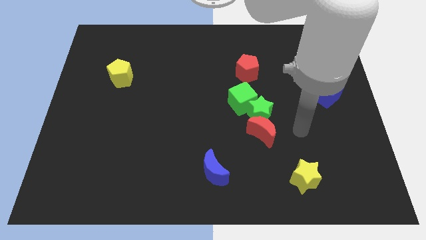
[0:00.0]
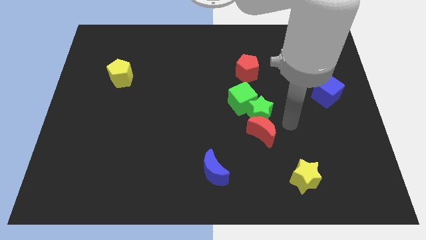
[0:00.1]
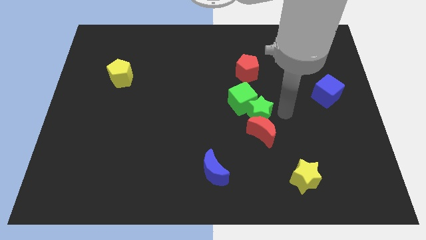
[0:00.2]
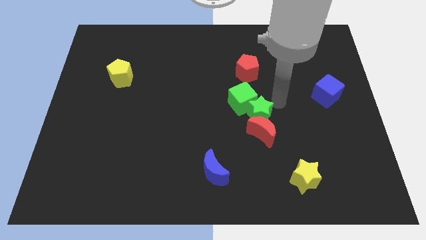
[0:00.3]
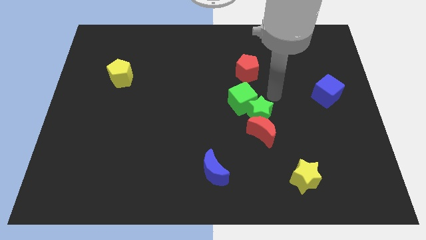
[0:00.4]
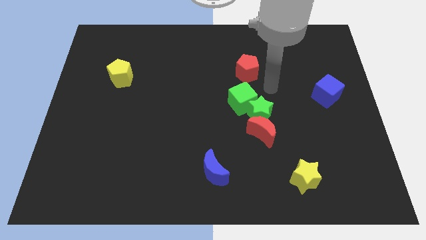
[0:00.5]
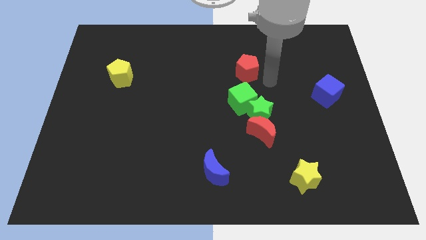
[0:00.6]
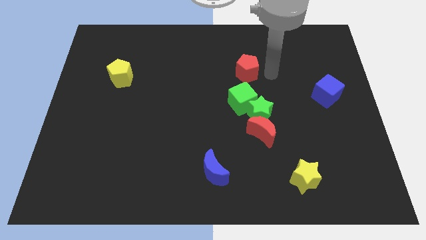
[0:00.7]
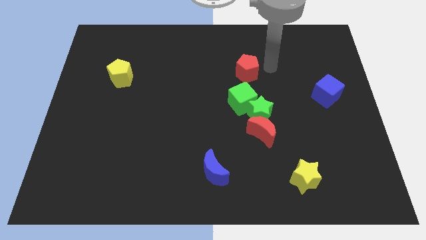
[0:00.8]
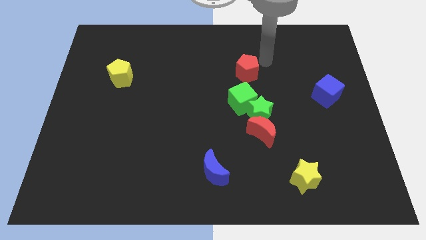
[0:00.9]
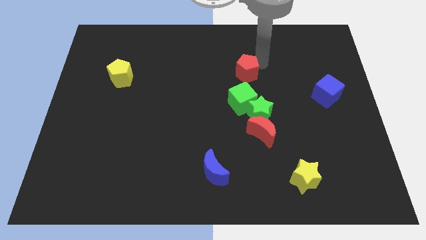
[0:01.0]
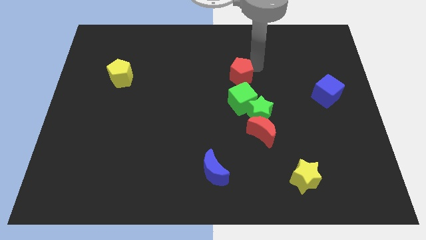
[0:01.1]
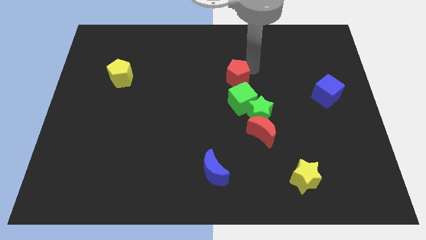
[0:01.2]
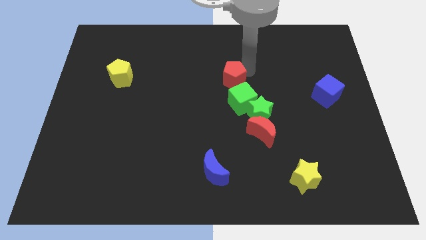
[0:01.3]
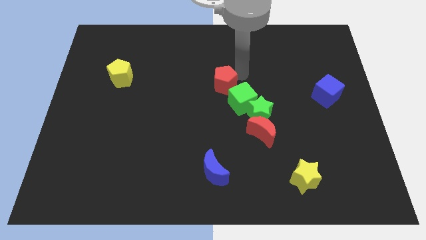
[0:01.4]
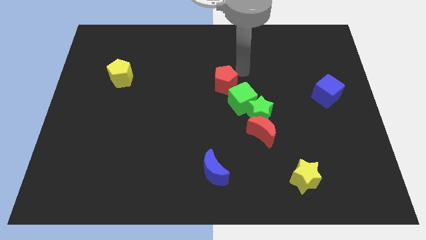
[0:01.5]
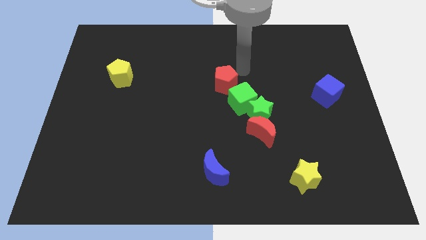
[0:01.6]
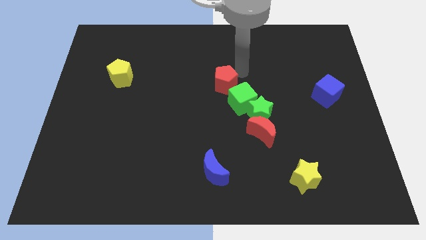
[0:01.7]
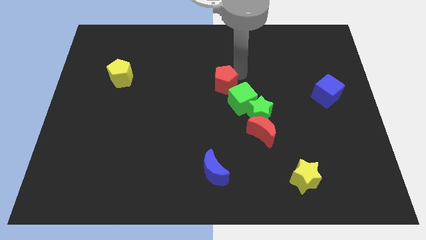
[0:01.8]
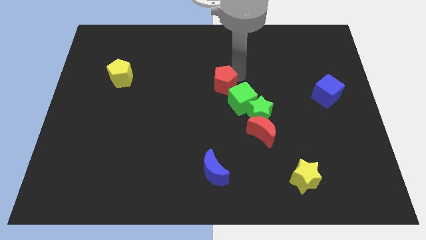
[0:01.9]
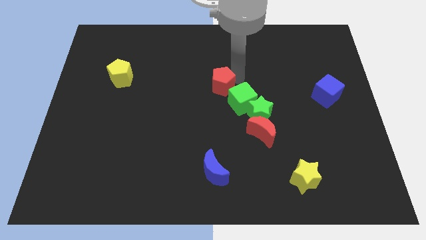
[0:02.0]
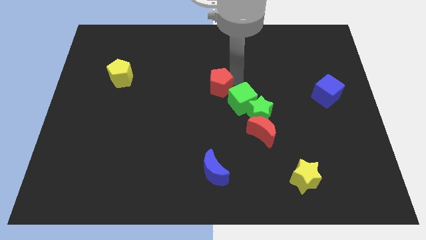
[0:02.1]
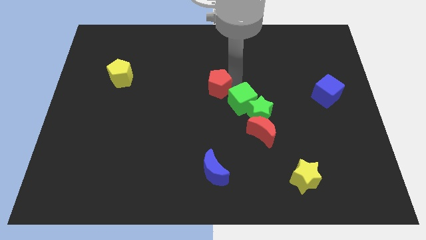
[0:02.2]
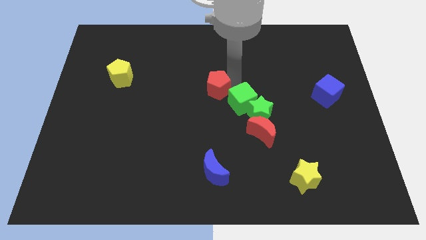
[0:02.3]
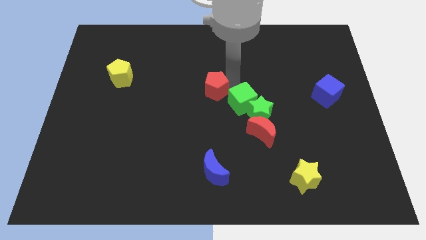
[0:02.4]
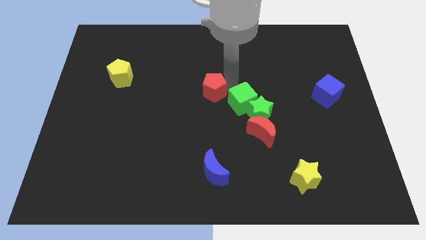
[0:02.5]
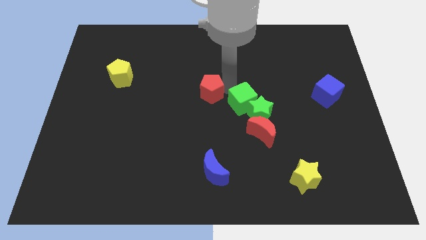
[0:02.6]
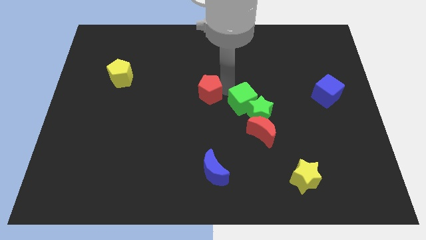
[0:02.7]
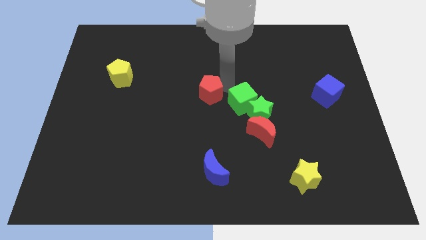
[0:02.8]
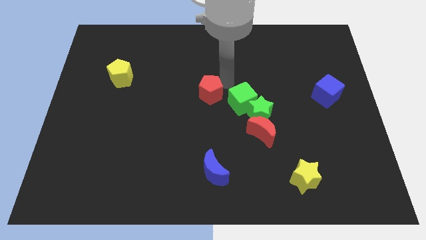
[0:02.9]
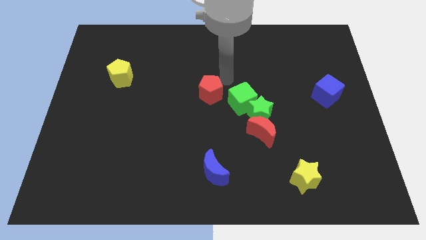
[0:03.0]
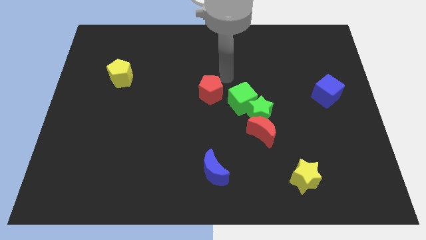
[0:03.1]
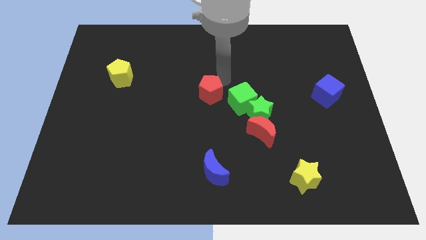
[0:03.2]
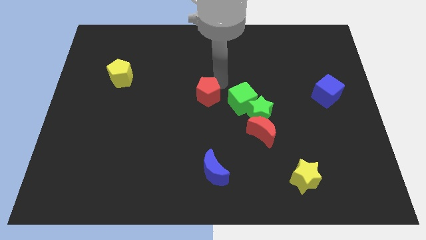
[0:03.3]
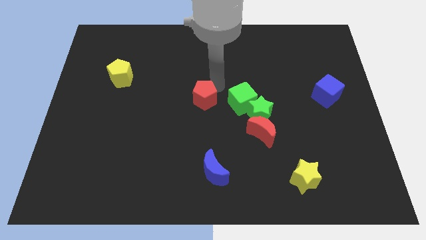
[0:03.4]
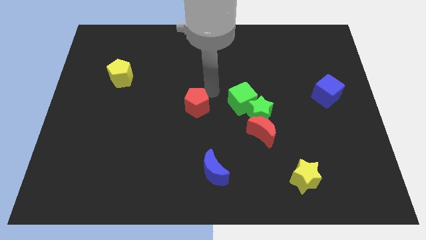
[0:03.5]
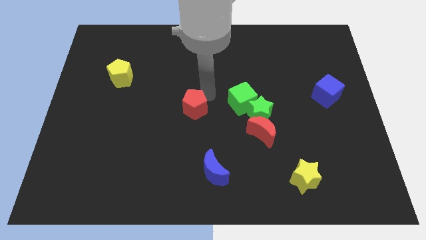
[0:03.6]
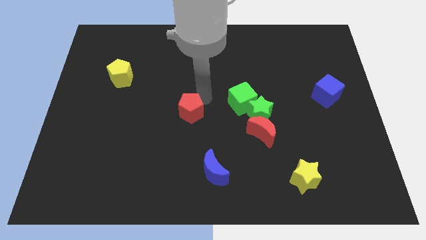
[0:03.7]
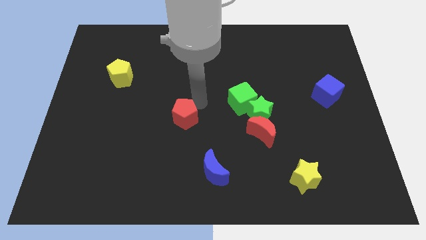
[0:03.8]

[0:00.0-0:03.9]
slide the red pentagon diagonally down and left

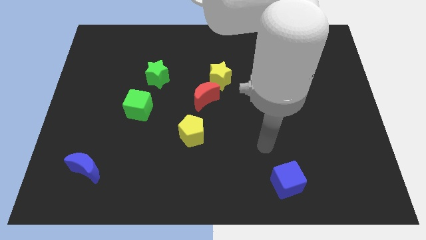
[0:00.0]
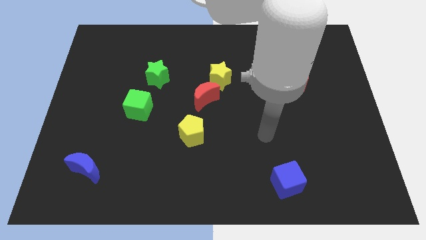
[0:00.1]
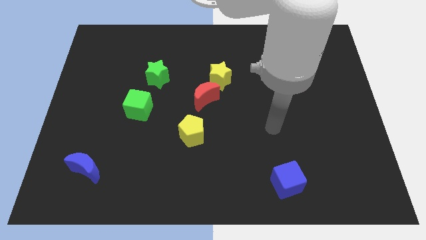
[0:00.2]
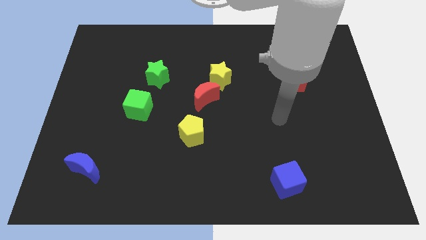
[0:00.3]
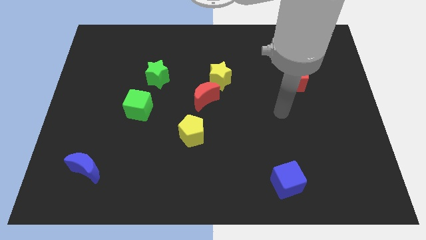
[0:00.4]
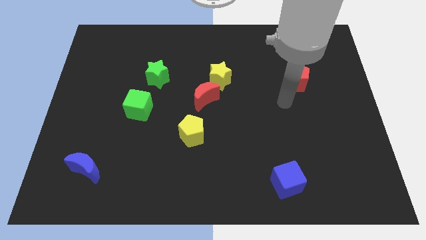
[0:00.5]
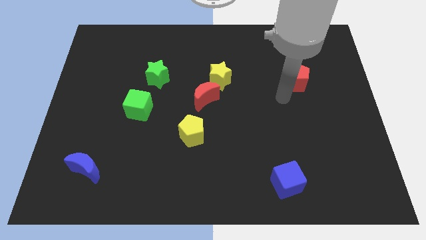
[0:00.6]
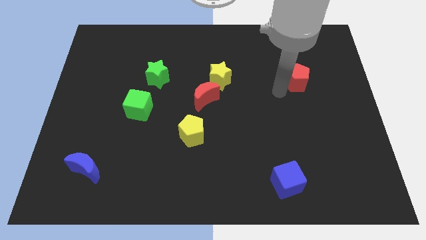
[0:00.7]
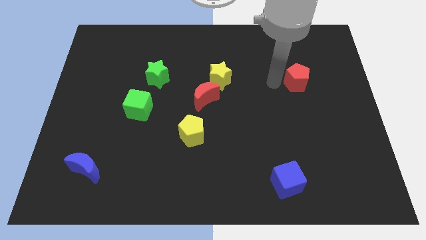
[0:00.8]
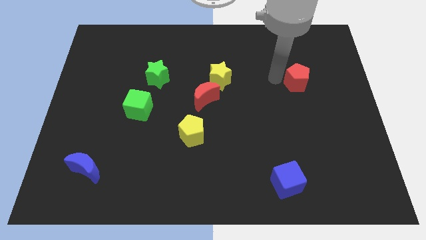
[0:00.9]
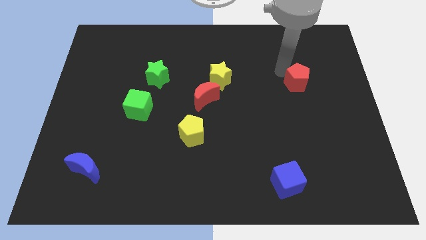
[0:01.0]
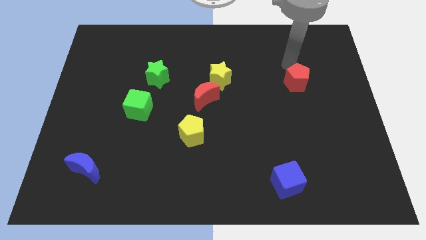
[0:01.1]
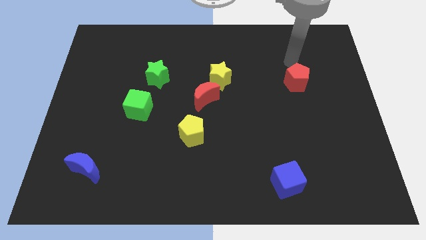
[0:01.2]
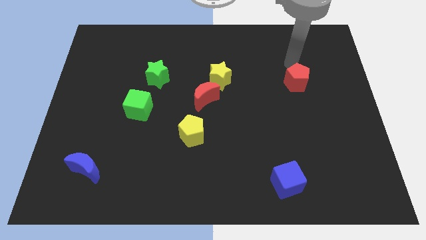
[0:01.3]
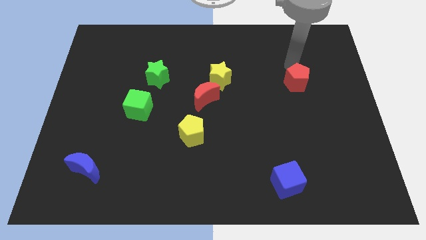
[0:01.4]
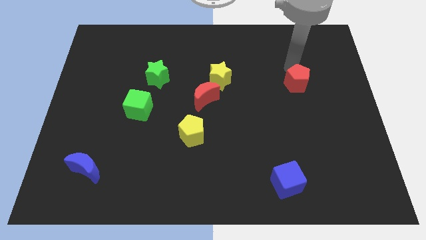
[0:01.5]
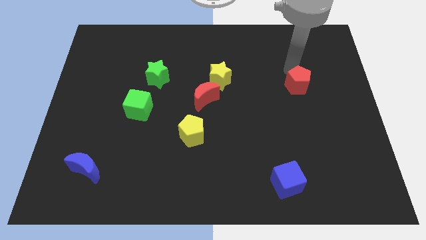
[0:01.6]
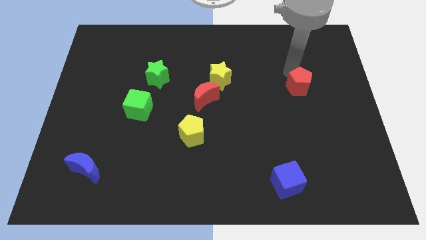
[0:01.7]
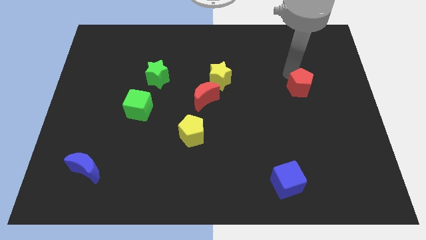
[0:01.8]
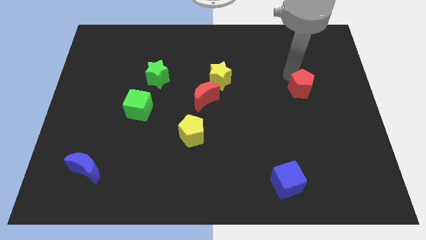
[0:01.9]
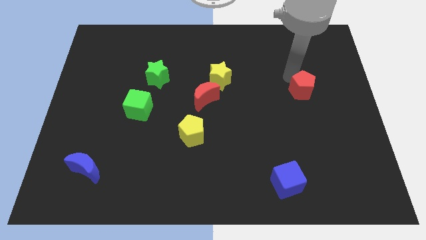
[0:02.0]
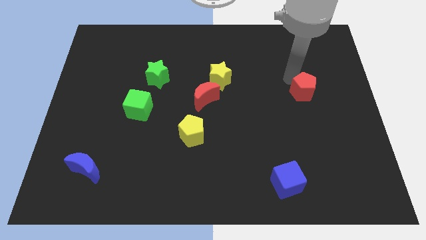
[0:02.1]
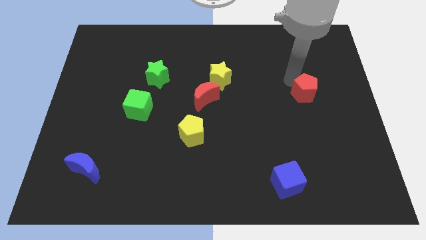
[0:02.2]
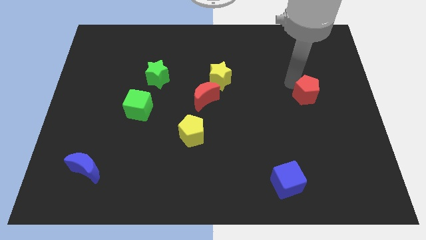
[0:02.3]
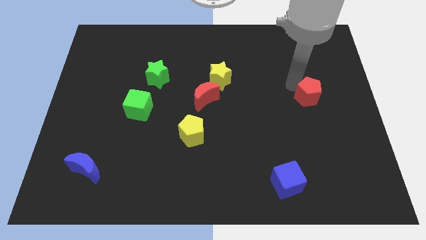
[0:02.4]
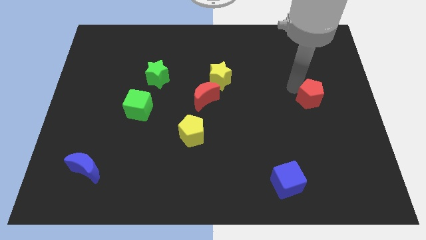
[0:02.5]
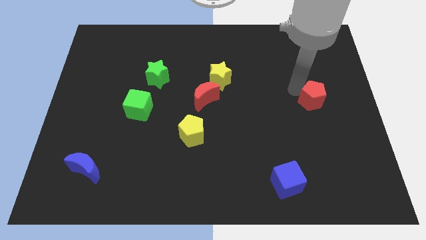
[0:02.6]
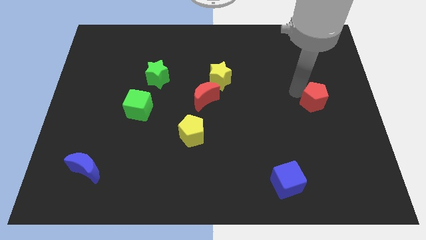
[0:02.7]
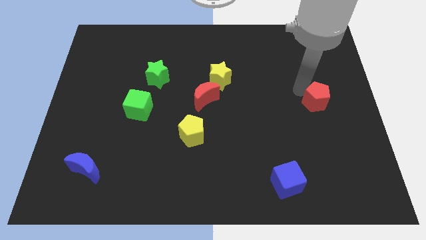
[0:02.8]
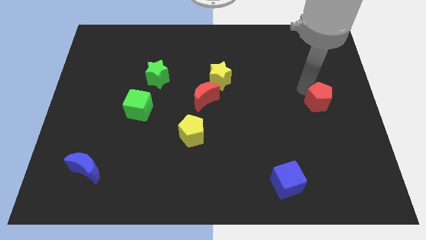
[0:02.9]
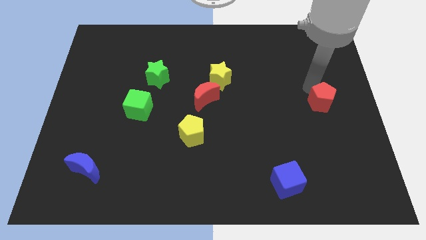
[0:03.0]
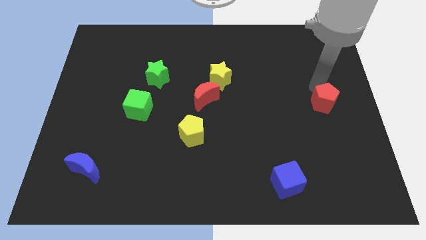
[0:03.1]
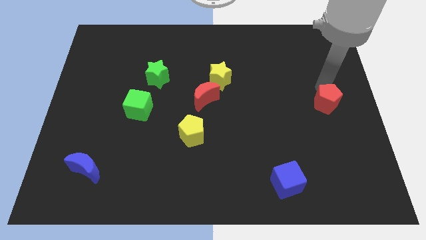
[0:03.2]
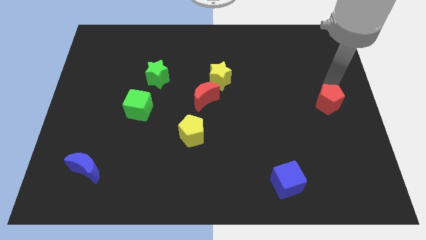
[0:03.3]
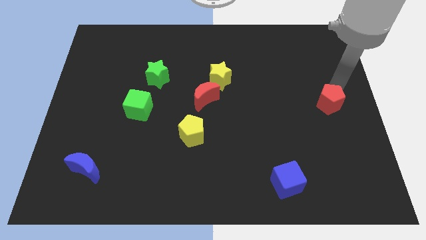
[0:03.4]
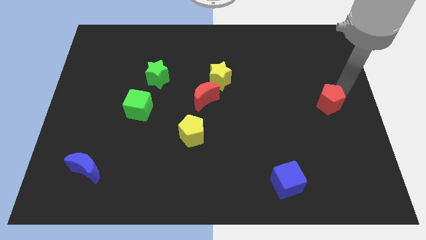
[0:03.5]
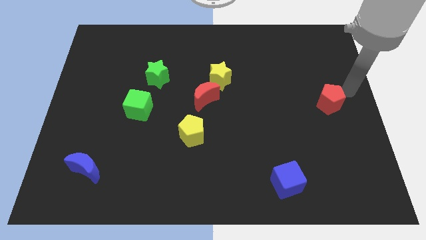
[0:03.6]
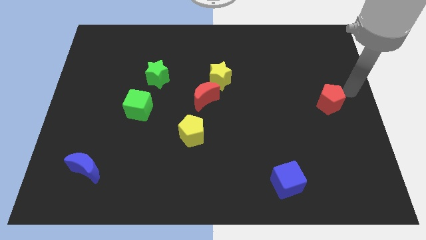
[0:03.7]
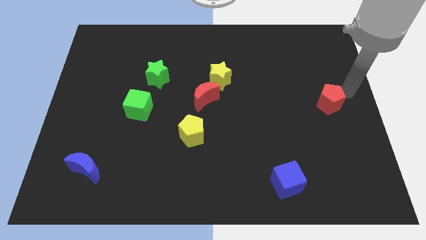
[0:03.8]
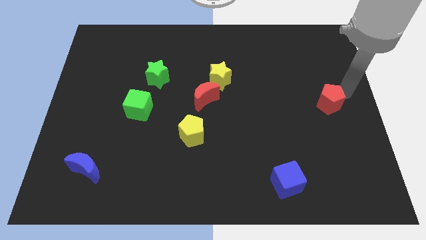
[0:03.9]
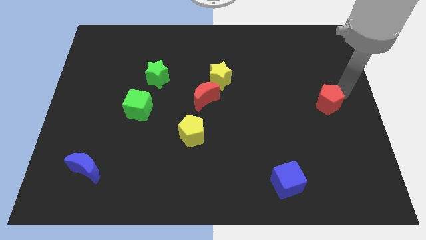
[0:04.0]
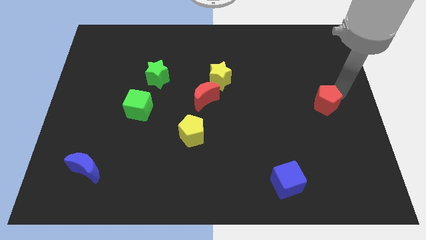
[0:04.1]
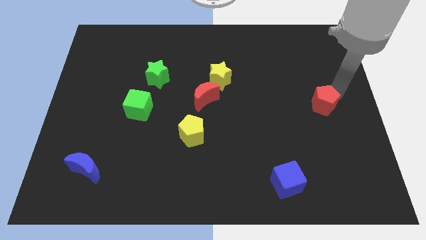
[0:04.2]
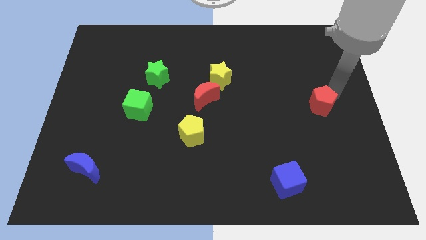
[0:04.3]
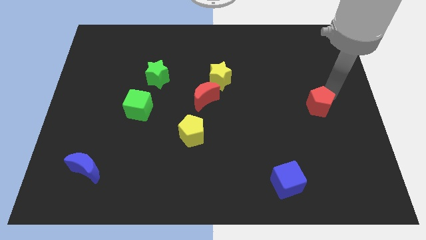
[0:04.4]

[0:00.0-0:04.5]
slightly move the red pentagon downwards
